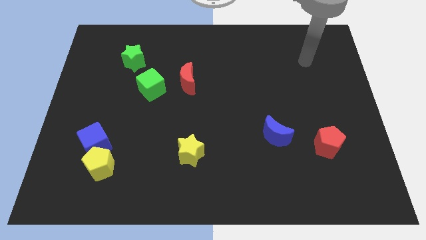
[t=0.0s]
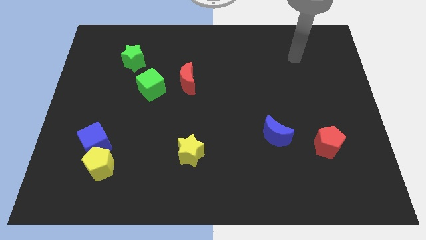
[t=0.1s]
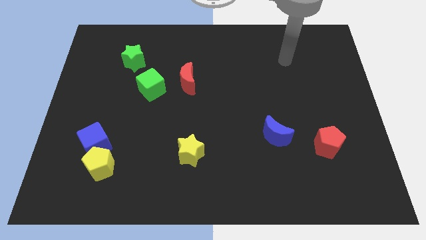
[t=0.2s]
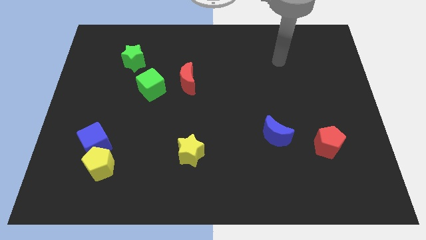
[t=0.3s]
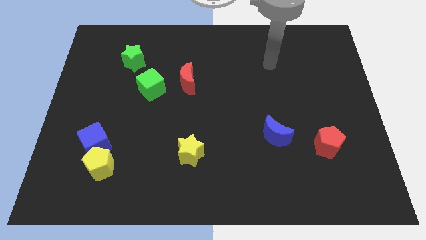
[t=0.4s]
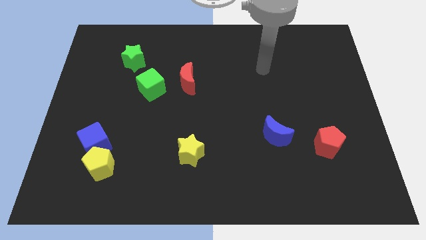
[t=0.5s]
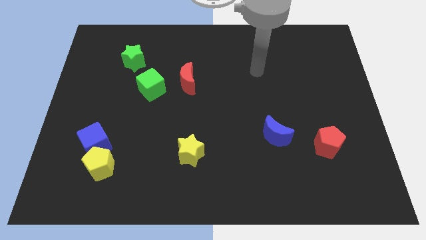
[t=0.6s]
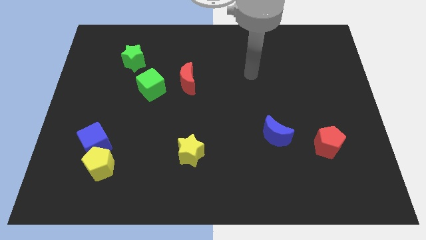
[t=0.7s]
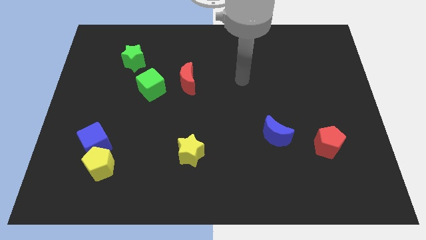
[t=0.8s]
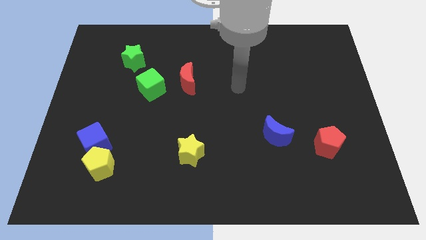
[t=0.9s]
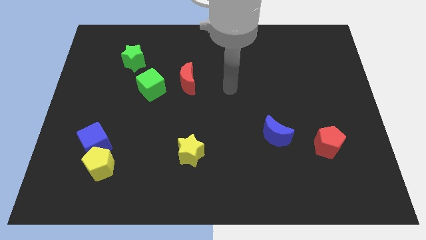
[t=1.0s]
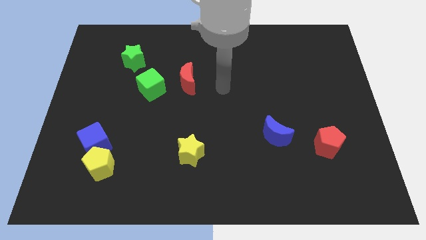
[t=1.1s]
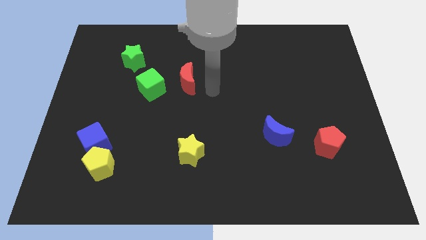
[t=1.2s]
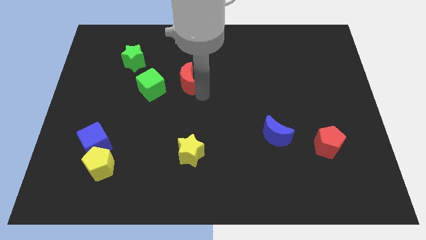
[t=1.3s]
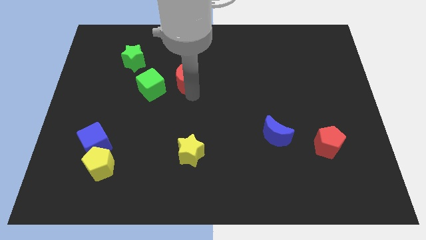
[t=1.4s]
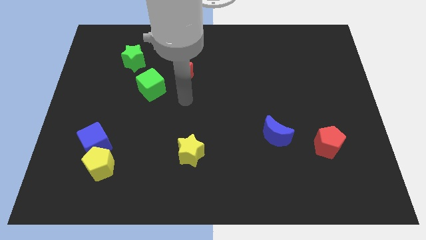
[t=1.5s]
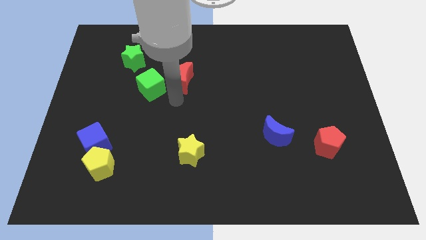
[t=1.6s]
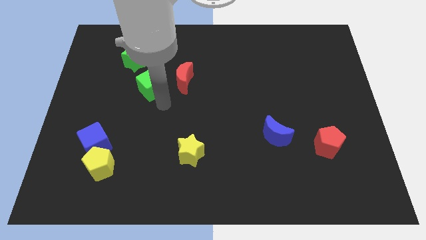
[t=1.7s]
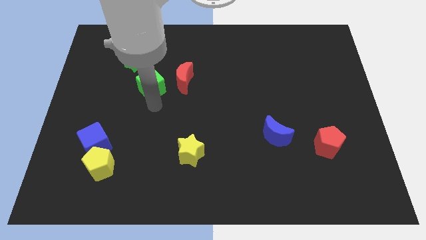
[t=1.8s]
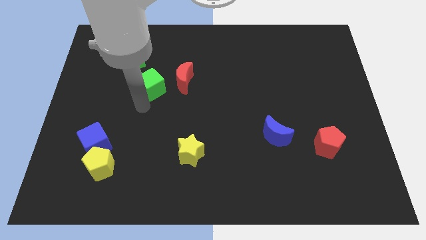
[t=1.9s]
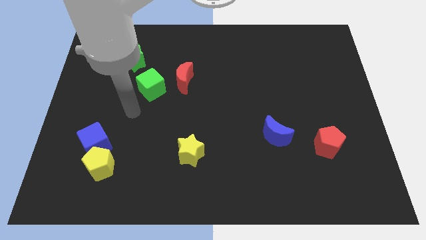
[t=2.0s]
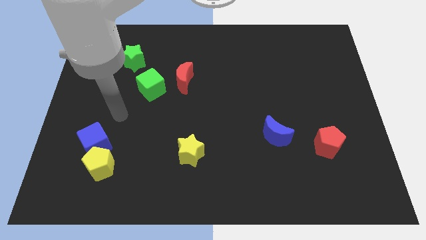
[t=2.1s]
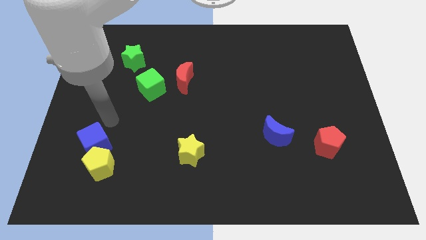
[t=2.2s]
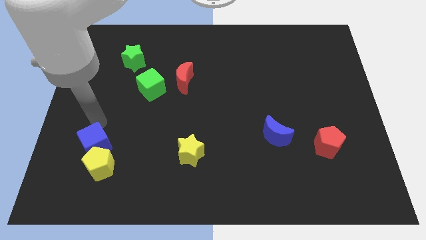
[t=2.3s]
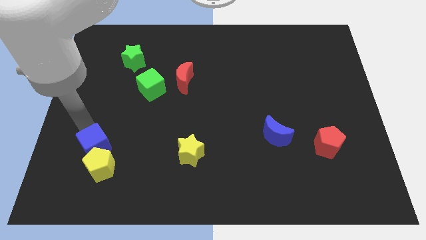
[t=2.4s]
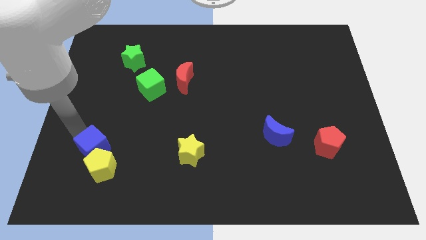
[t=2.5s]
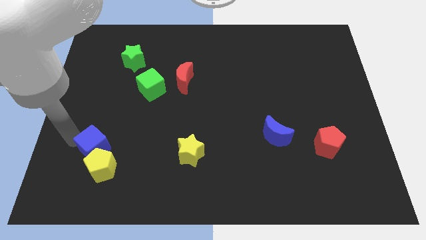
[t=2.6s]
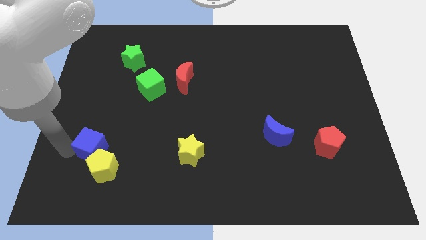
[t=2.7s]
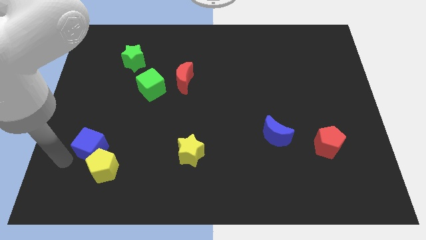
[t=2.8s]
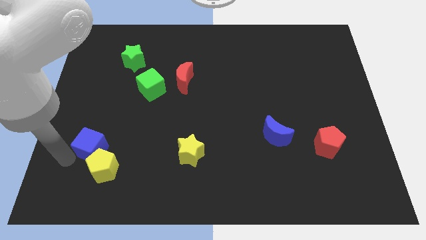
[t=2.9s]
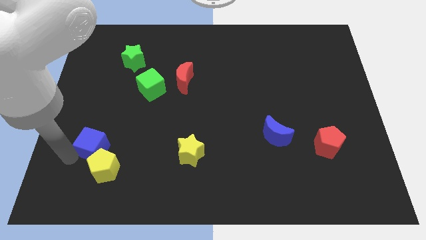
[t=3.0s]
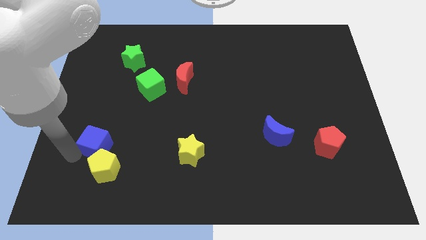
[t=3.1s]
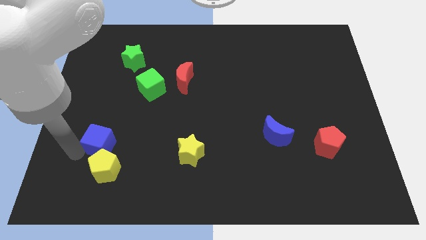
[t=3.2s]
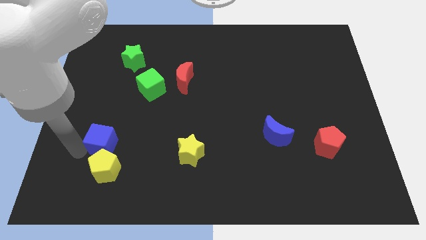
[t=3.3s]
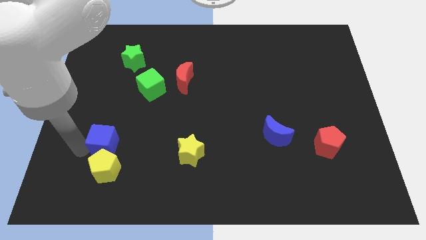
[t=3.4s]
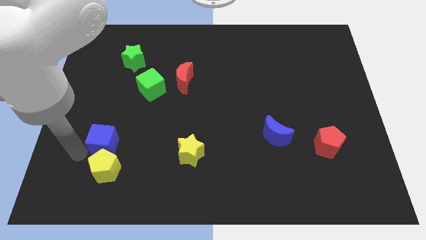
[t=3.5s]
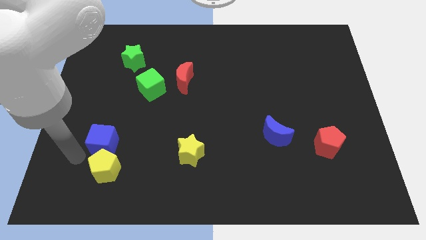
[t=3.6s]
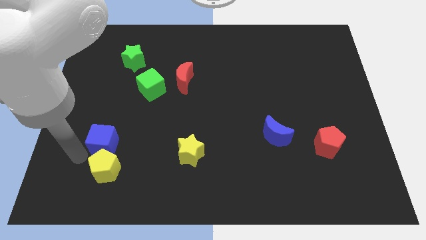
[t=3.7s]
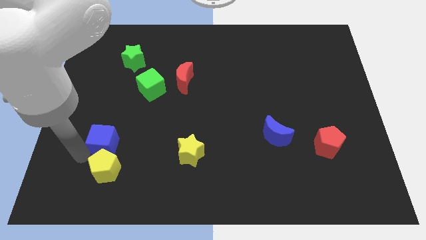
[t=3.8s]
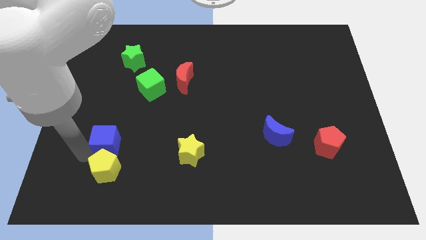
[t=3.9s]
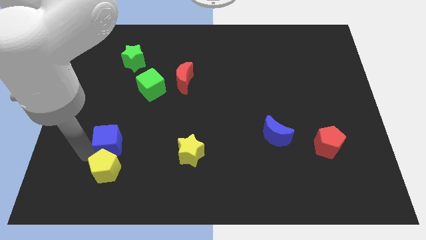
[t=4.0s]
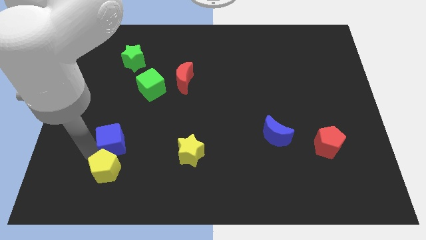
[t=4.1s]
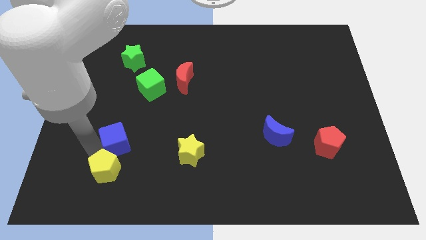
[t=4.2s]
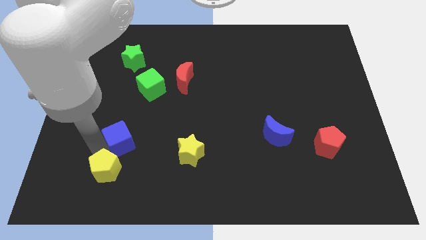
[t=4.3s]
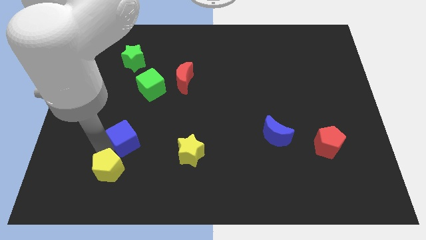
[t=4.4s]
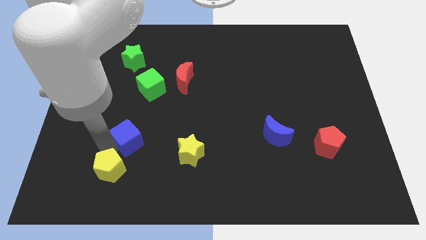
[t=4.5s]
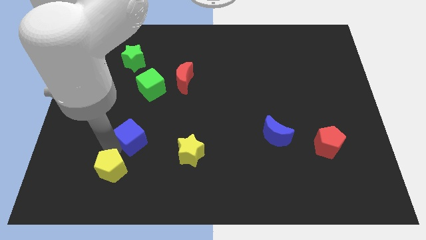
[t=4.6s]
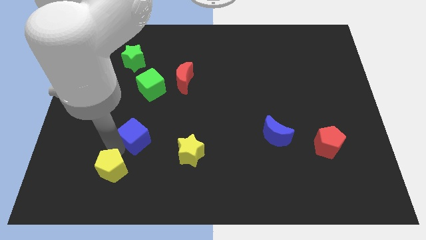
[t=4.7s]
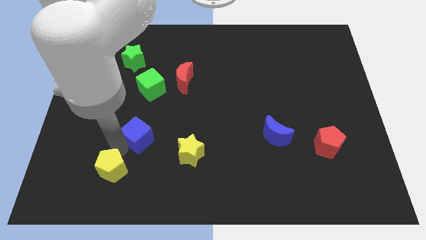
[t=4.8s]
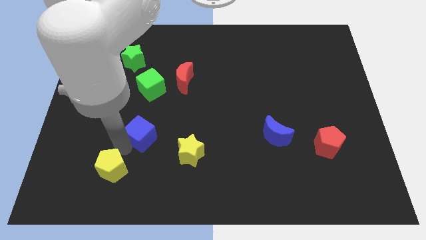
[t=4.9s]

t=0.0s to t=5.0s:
slide the blue cube a little bit up and right diagonally

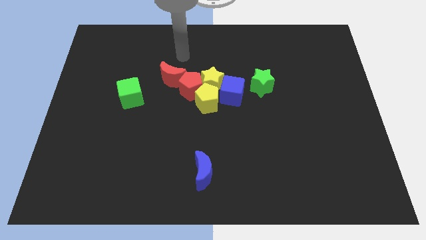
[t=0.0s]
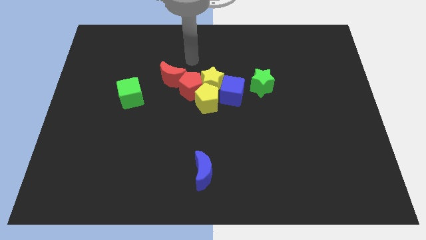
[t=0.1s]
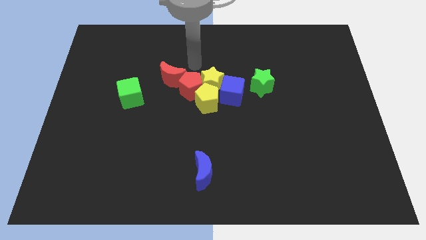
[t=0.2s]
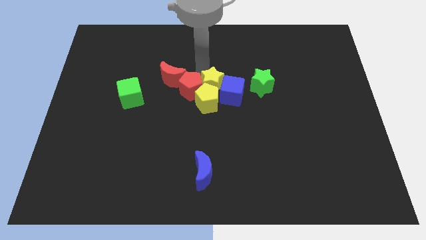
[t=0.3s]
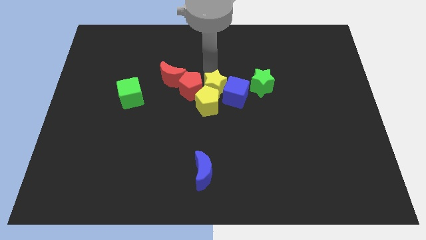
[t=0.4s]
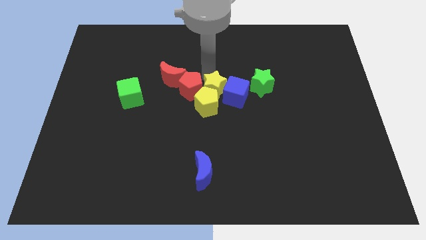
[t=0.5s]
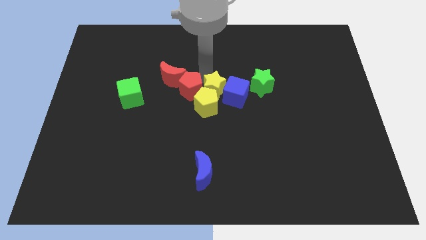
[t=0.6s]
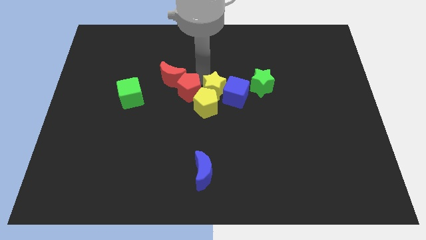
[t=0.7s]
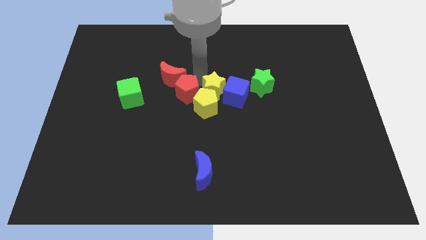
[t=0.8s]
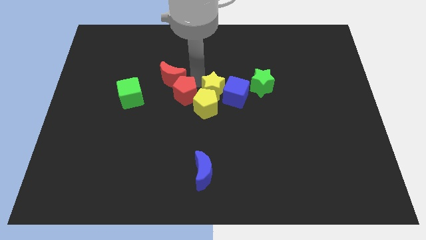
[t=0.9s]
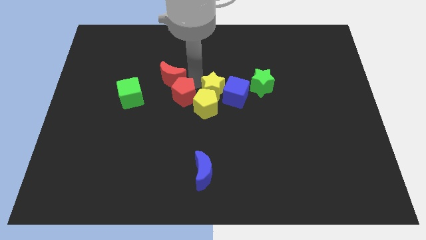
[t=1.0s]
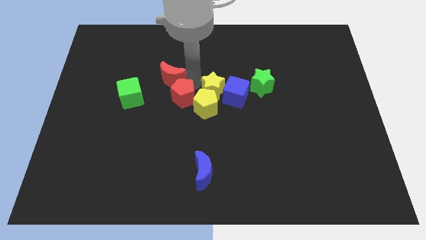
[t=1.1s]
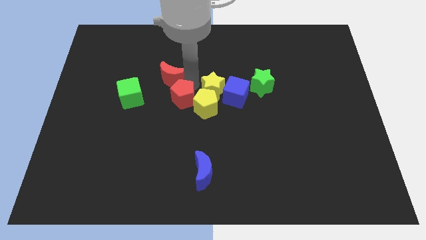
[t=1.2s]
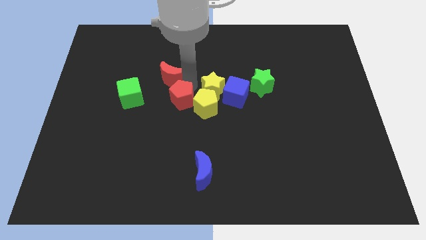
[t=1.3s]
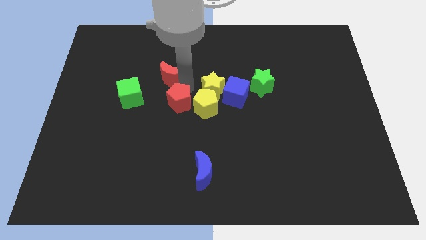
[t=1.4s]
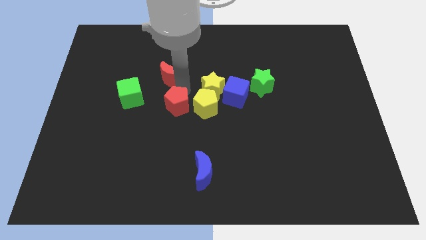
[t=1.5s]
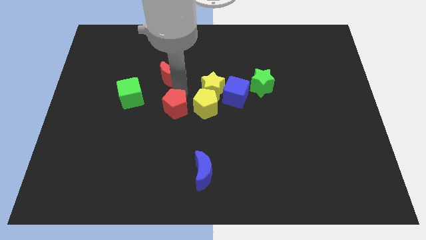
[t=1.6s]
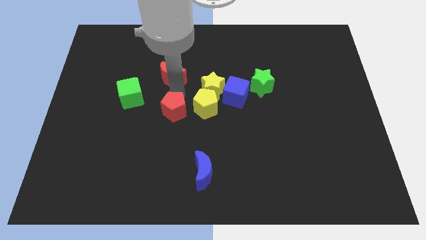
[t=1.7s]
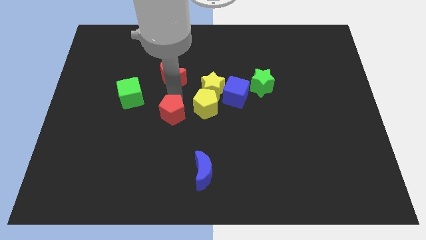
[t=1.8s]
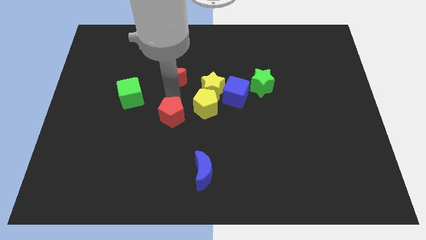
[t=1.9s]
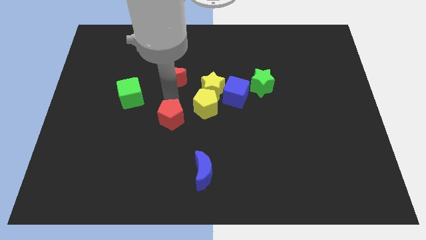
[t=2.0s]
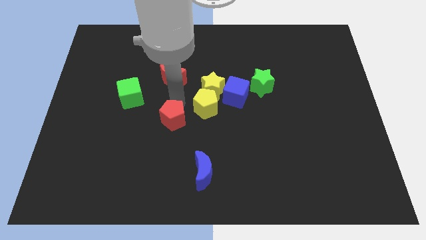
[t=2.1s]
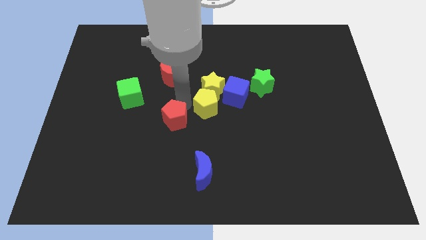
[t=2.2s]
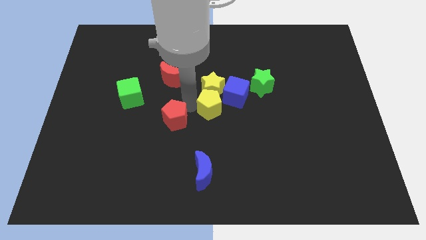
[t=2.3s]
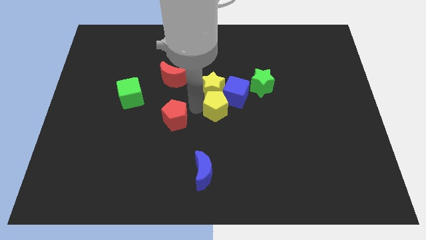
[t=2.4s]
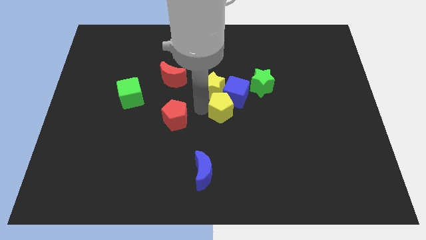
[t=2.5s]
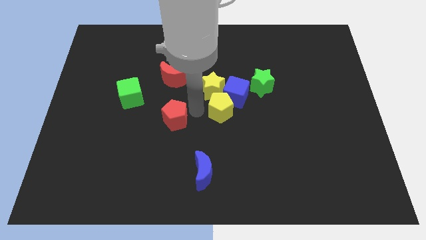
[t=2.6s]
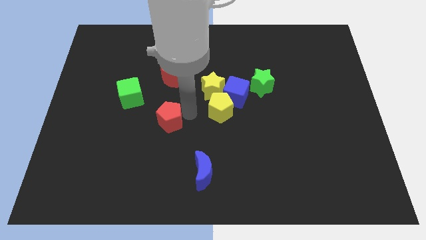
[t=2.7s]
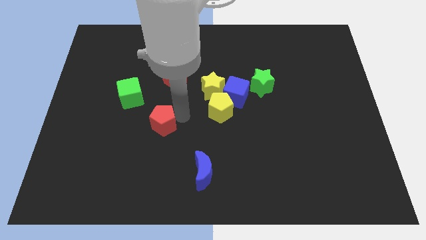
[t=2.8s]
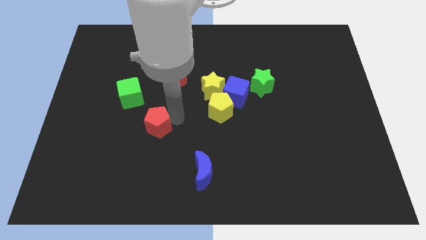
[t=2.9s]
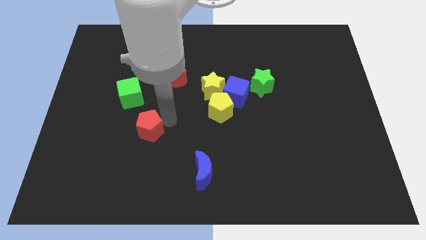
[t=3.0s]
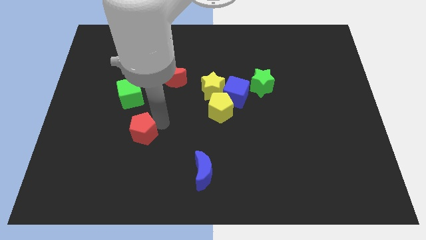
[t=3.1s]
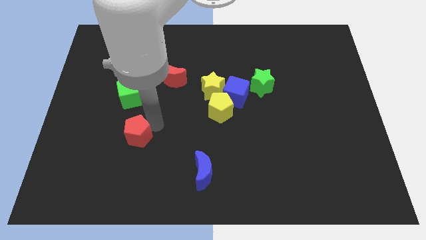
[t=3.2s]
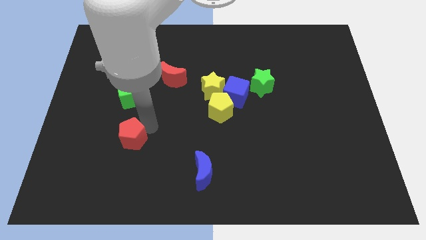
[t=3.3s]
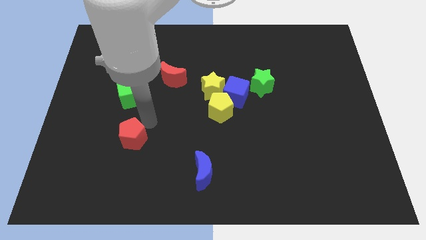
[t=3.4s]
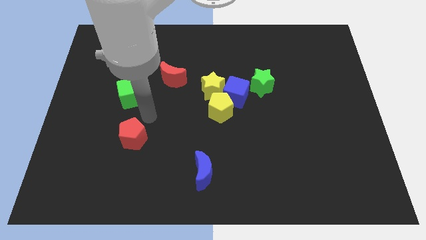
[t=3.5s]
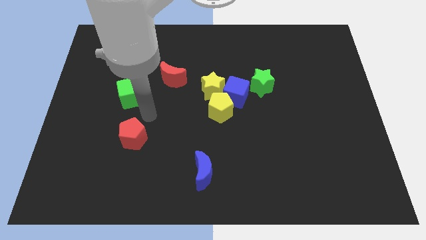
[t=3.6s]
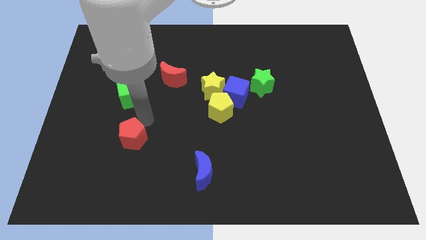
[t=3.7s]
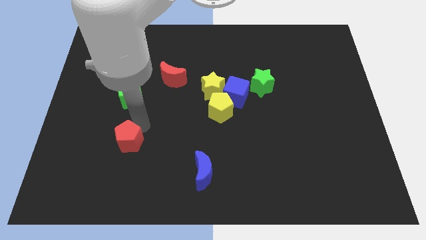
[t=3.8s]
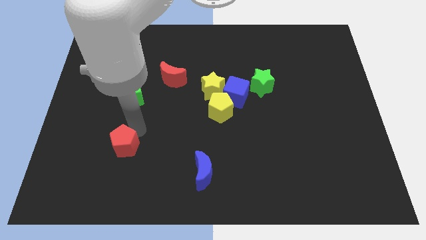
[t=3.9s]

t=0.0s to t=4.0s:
move the red pentagon down and to the left diagonally
